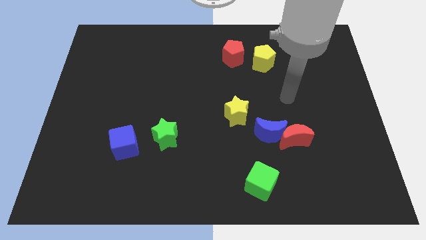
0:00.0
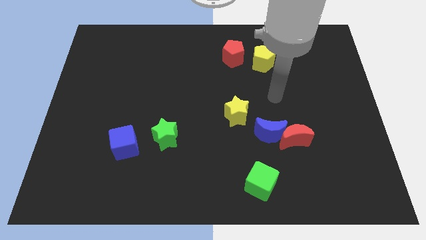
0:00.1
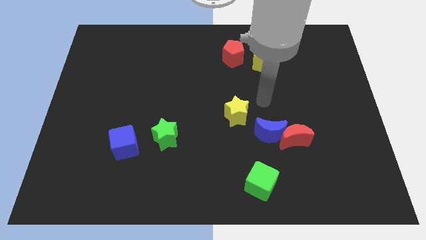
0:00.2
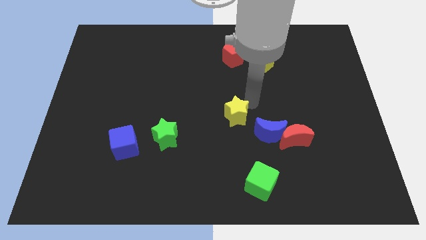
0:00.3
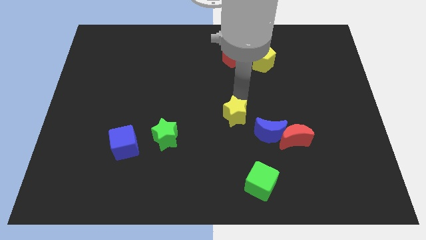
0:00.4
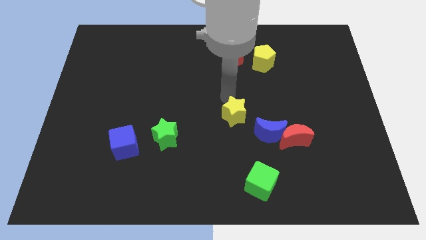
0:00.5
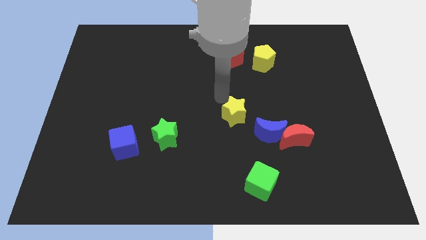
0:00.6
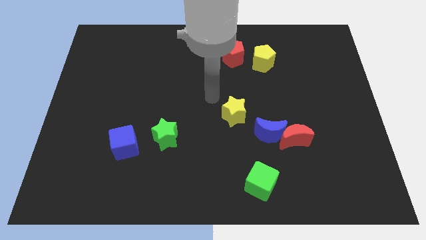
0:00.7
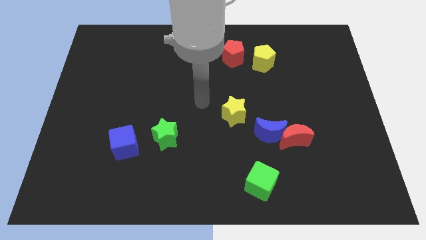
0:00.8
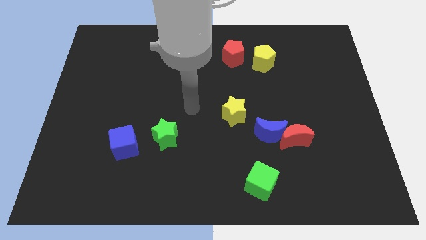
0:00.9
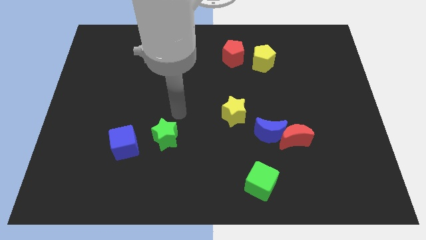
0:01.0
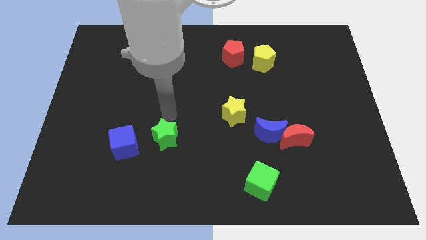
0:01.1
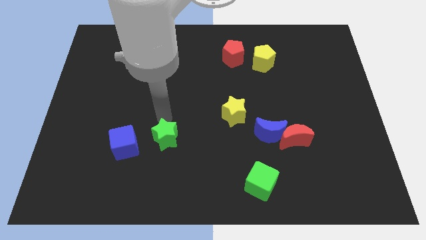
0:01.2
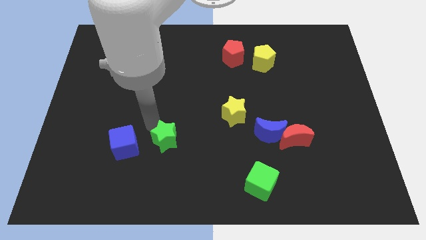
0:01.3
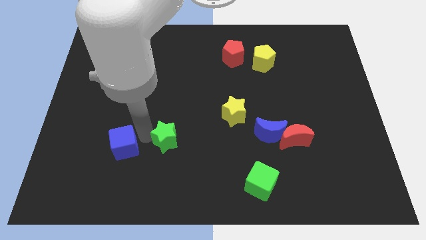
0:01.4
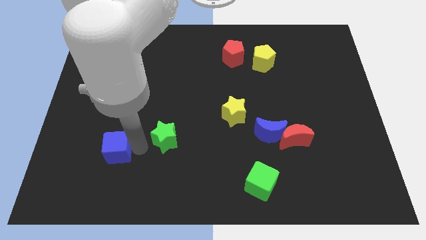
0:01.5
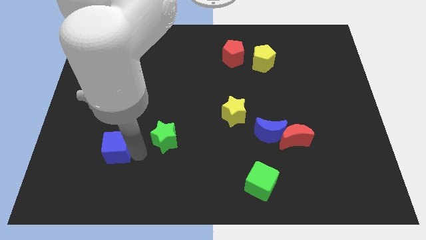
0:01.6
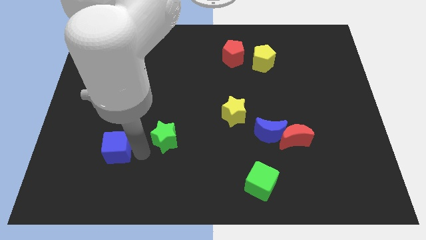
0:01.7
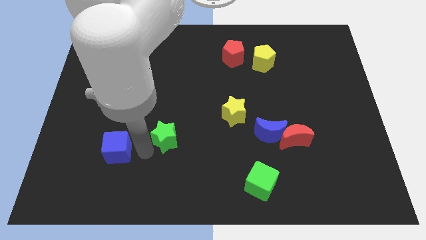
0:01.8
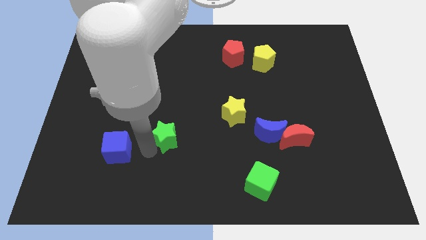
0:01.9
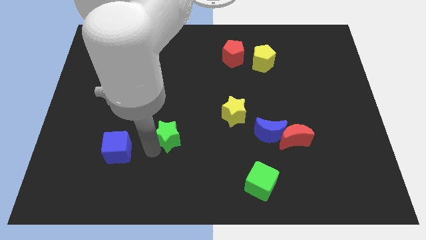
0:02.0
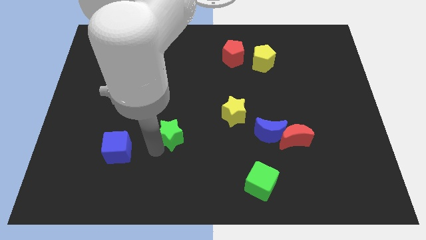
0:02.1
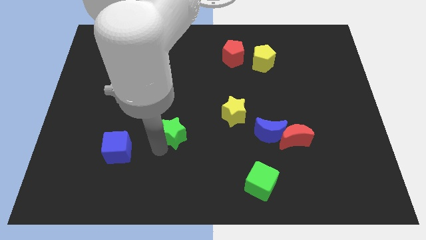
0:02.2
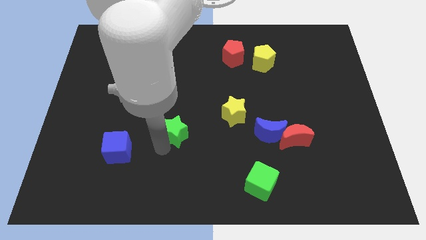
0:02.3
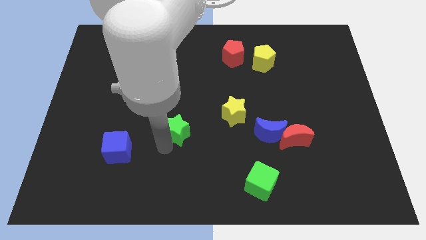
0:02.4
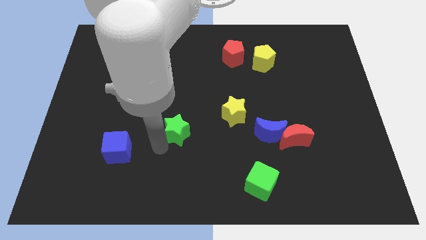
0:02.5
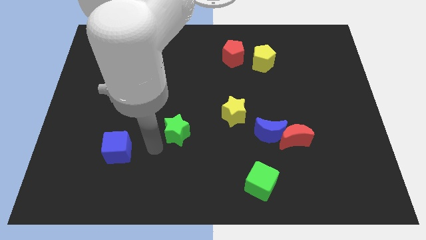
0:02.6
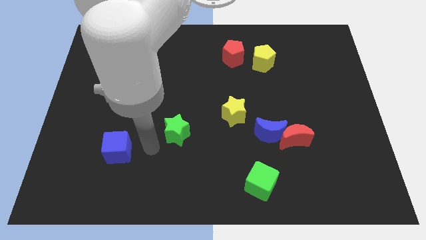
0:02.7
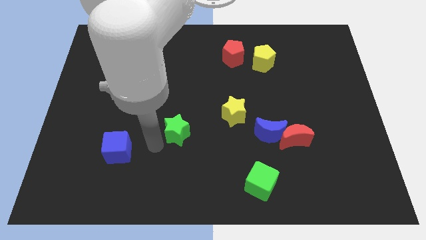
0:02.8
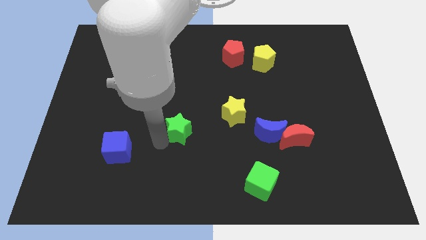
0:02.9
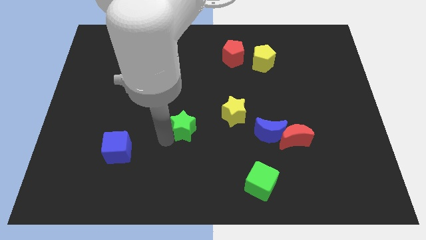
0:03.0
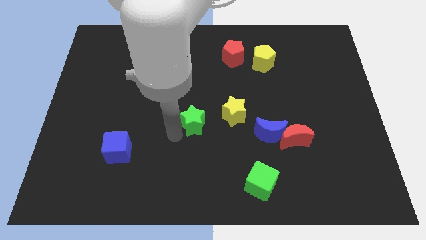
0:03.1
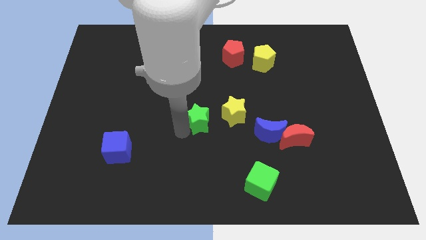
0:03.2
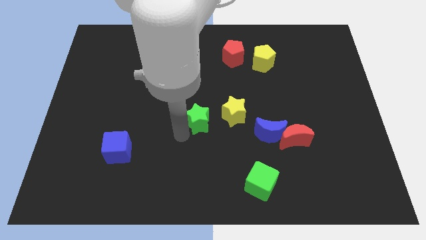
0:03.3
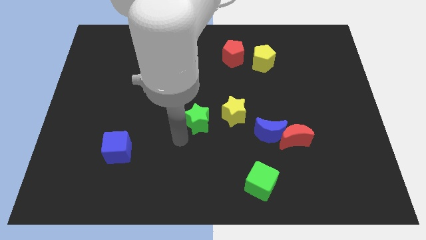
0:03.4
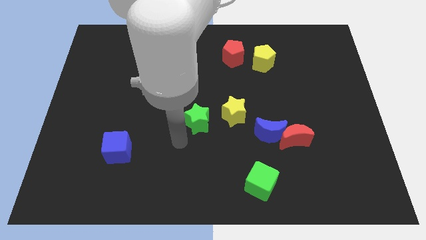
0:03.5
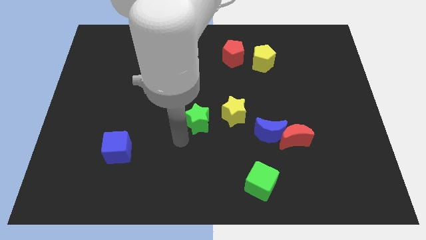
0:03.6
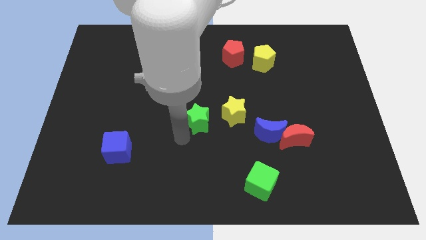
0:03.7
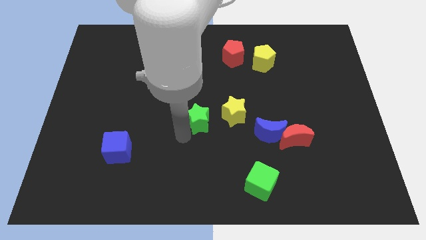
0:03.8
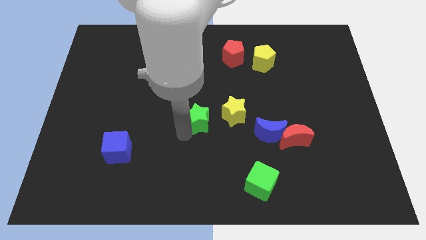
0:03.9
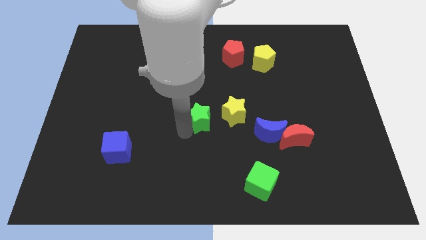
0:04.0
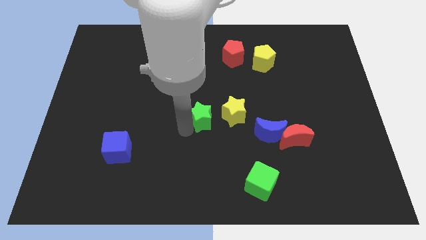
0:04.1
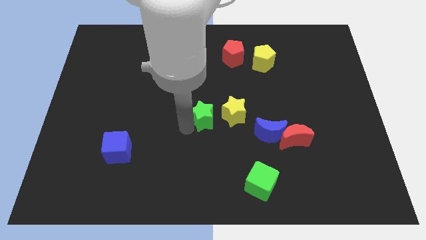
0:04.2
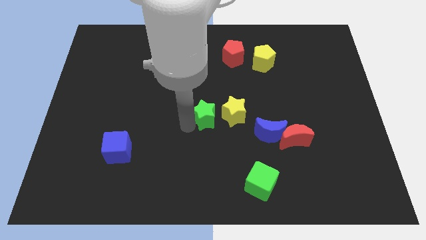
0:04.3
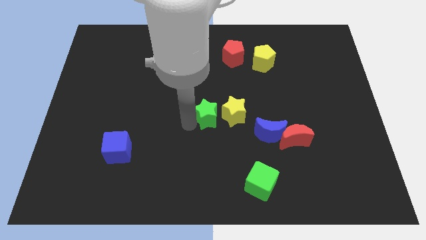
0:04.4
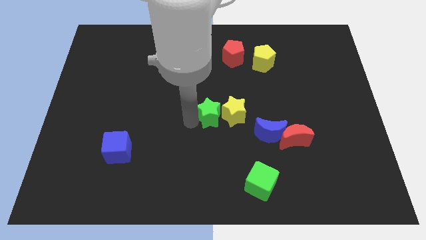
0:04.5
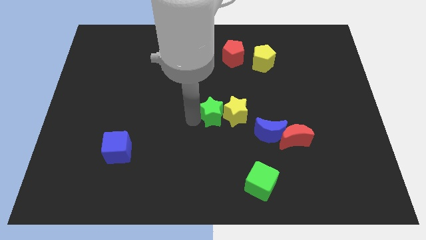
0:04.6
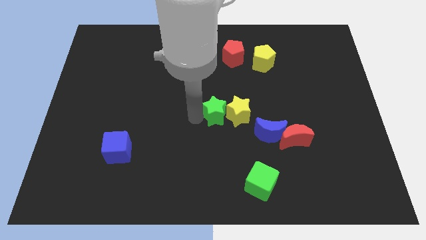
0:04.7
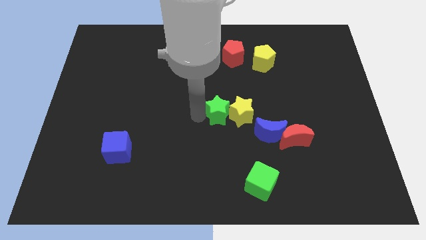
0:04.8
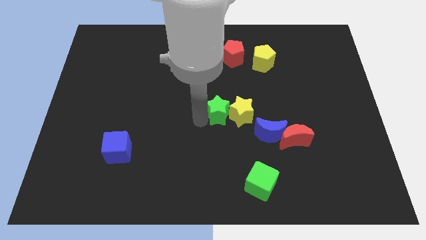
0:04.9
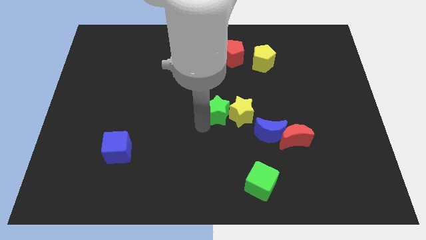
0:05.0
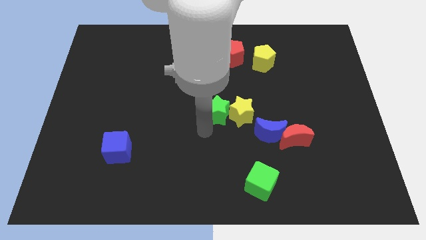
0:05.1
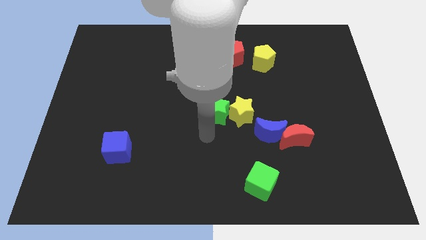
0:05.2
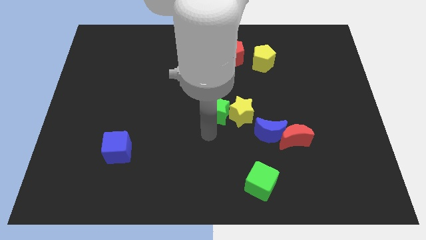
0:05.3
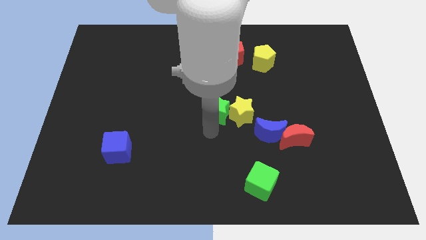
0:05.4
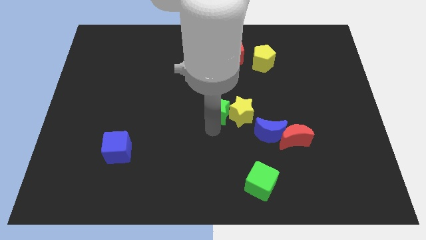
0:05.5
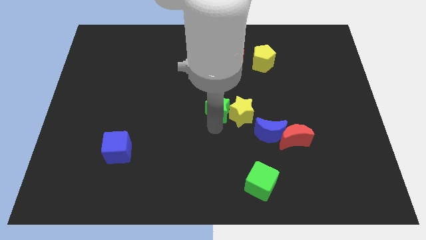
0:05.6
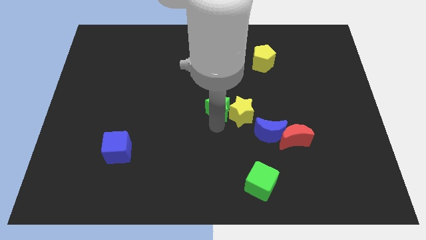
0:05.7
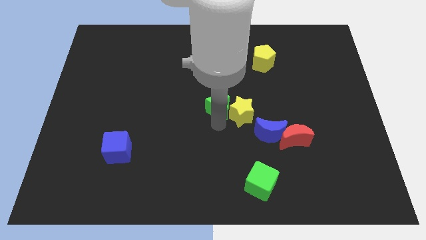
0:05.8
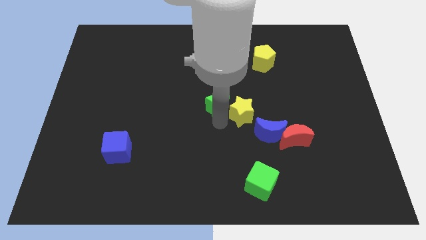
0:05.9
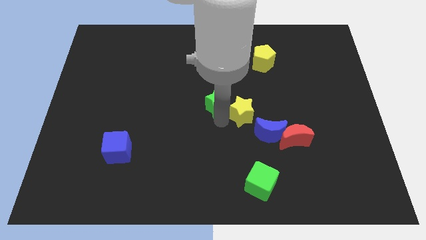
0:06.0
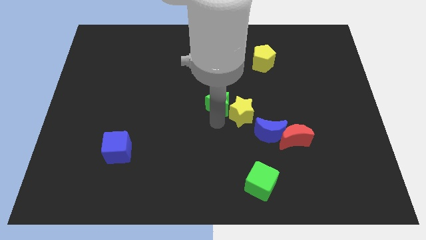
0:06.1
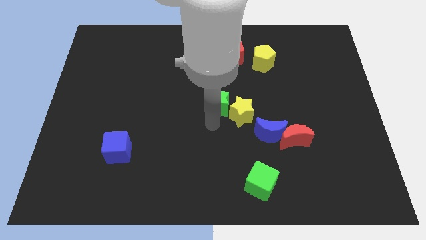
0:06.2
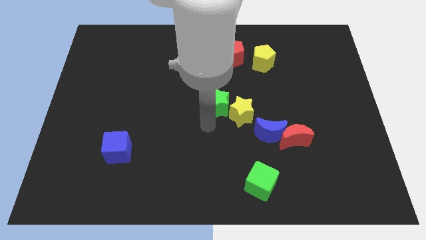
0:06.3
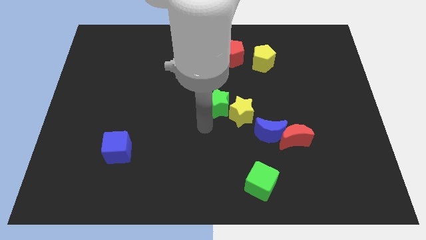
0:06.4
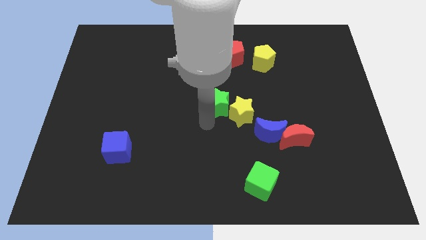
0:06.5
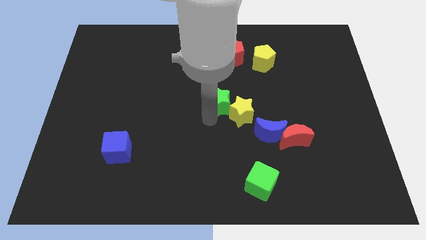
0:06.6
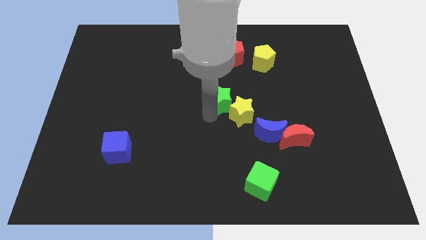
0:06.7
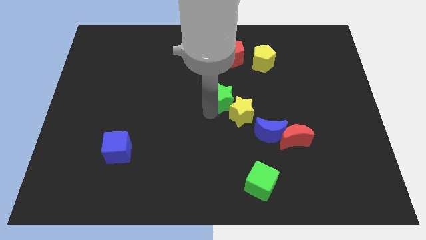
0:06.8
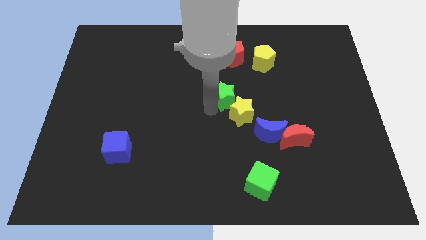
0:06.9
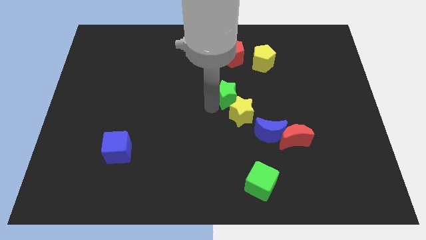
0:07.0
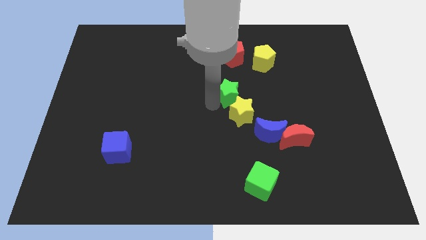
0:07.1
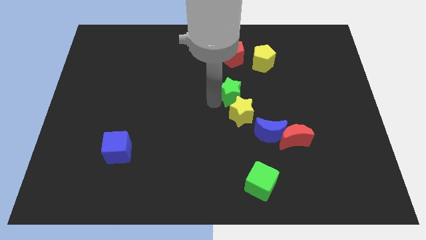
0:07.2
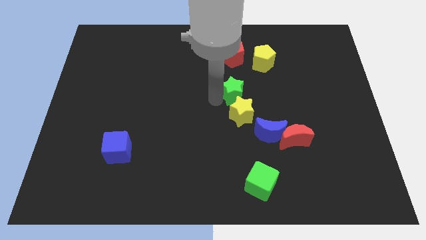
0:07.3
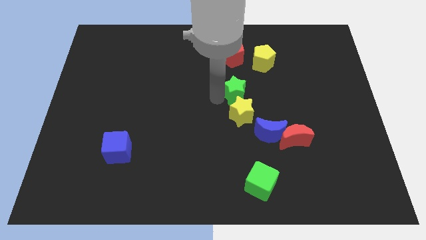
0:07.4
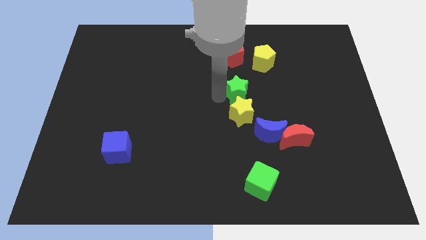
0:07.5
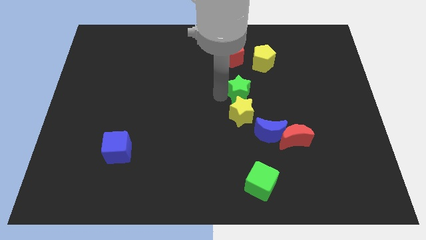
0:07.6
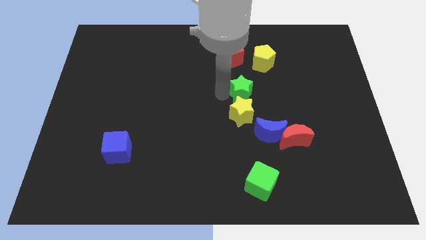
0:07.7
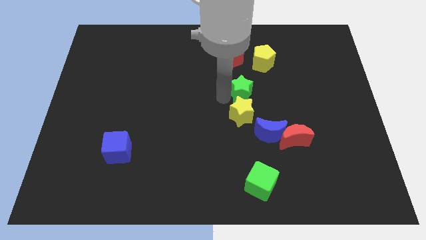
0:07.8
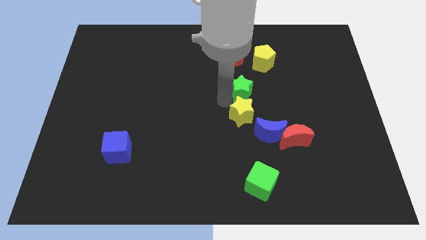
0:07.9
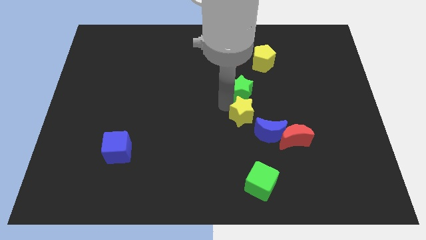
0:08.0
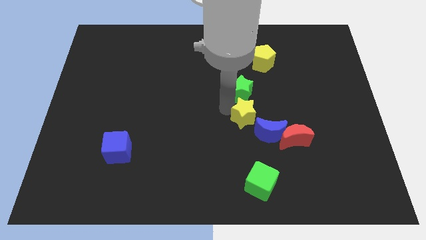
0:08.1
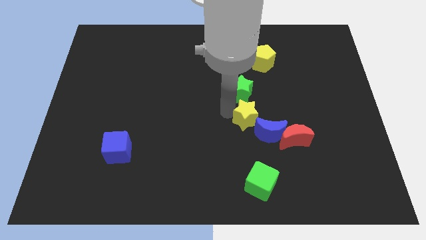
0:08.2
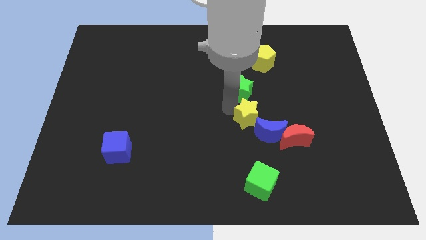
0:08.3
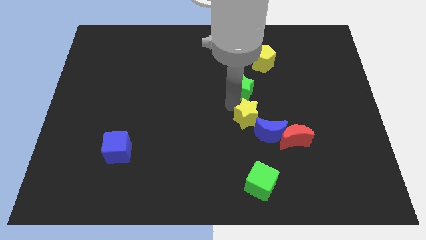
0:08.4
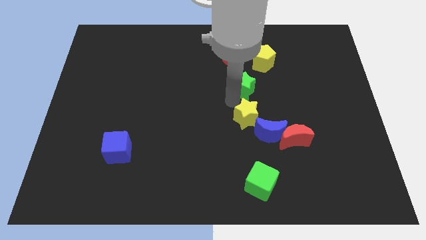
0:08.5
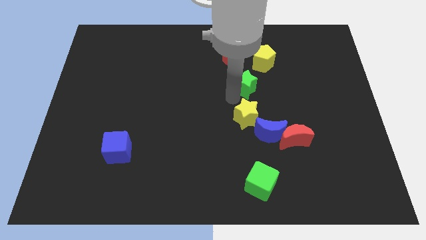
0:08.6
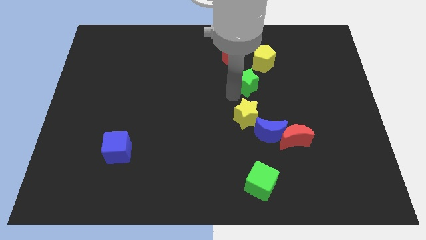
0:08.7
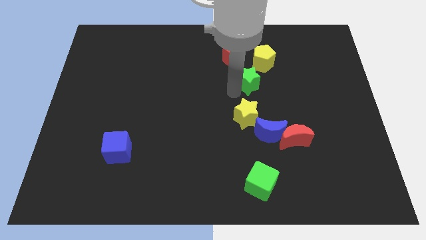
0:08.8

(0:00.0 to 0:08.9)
push the green star to the bottom right side of the red pentagon
